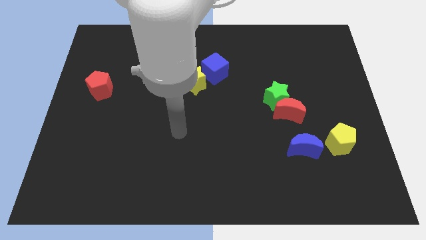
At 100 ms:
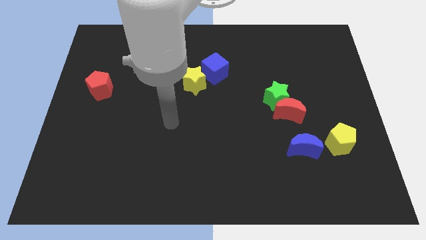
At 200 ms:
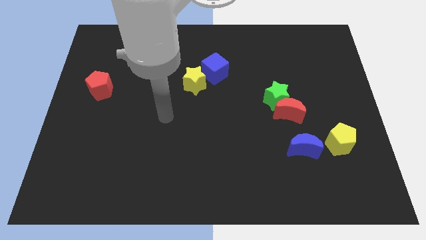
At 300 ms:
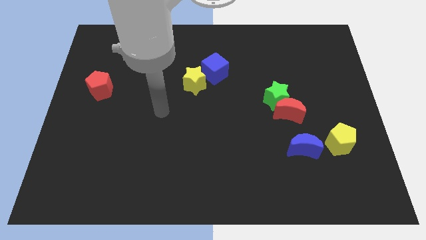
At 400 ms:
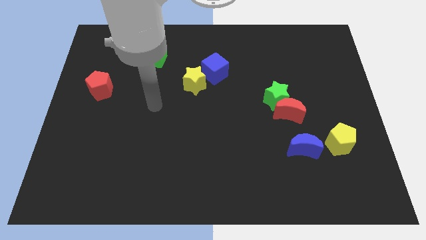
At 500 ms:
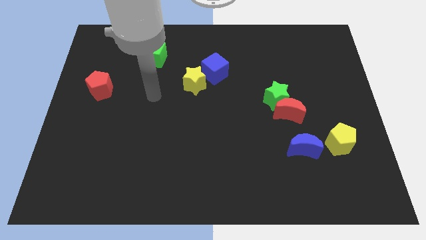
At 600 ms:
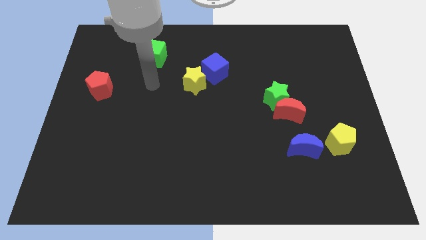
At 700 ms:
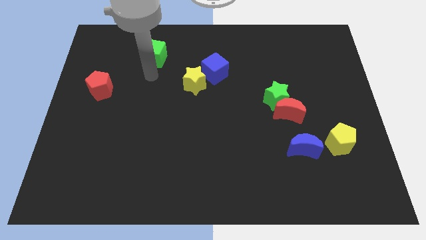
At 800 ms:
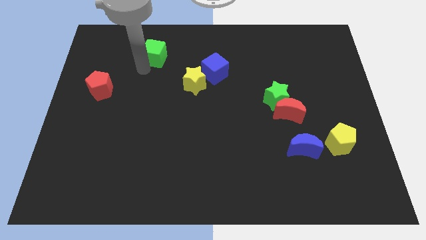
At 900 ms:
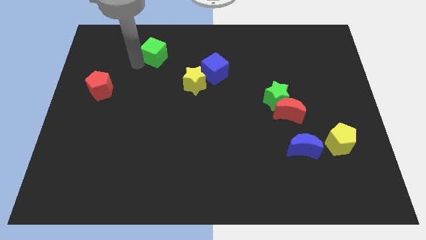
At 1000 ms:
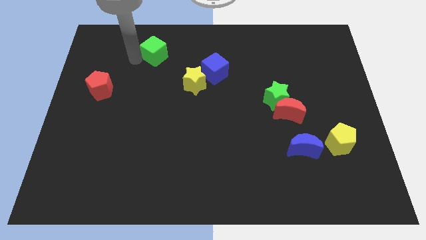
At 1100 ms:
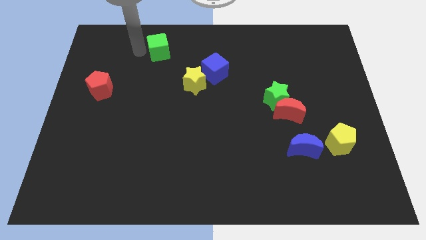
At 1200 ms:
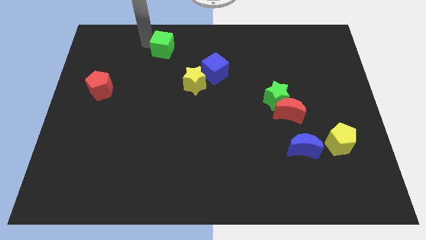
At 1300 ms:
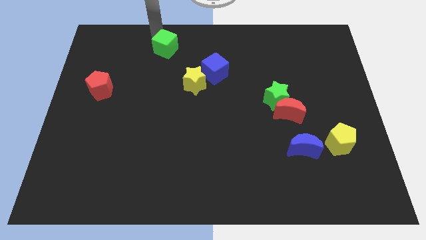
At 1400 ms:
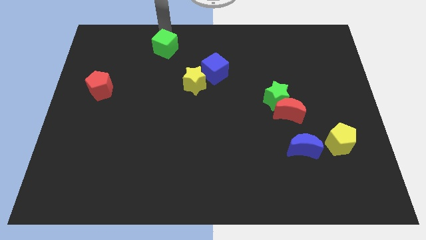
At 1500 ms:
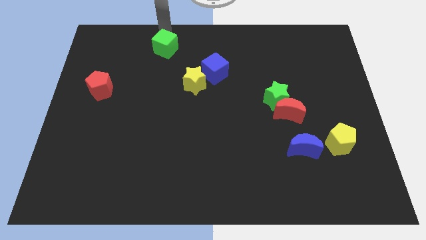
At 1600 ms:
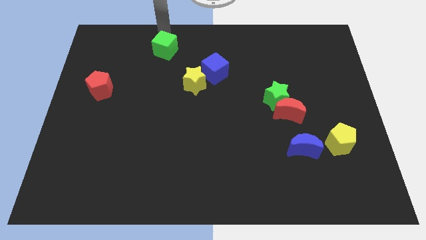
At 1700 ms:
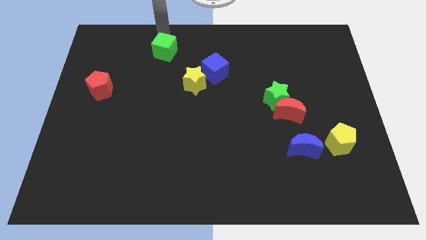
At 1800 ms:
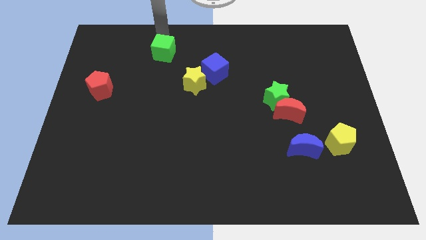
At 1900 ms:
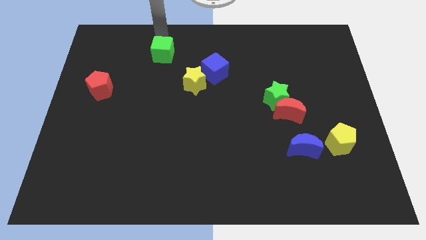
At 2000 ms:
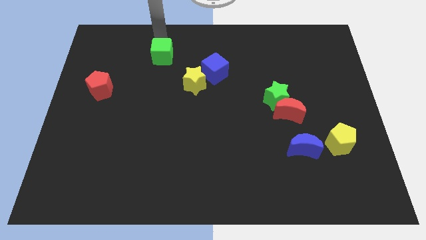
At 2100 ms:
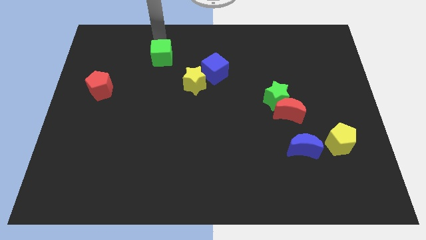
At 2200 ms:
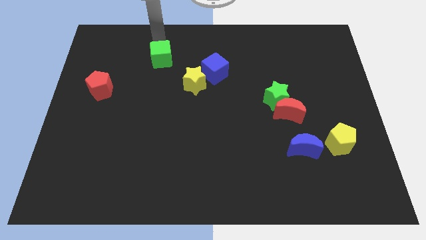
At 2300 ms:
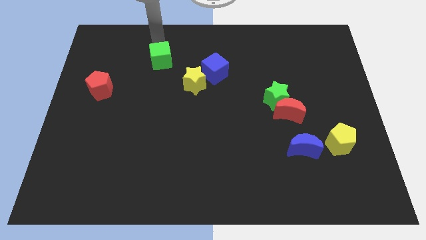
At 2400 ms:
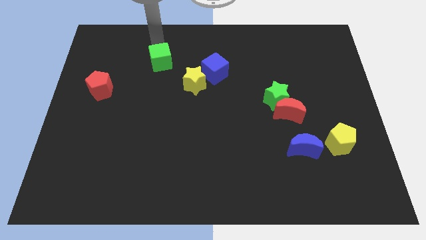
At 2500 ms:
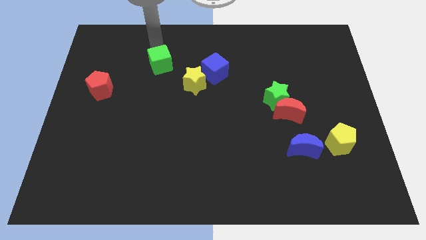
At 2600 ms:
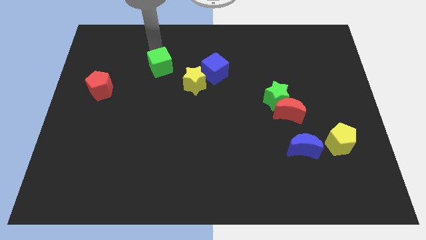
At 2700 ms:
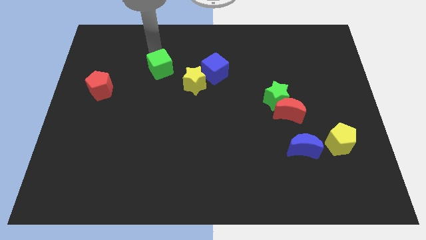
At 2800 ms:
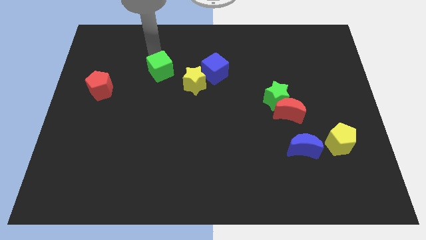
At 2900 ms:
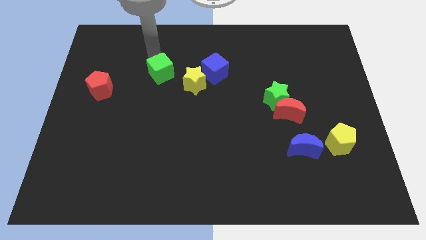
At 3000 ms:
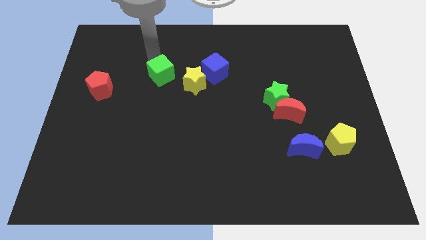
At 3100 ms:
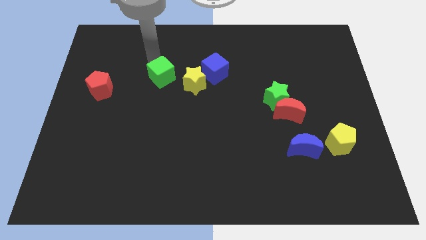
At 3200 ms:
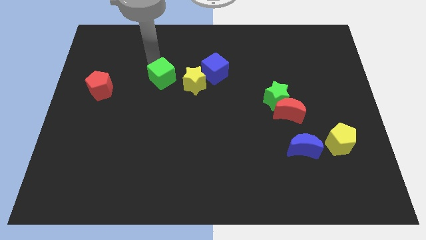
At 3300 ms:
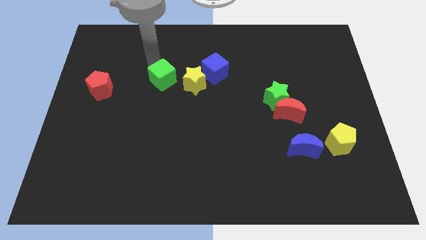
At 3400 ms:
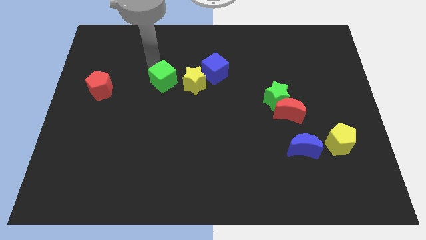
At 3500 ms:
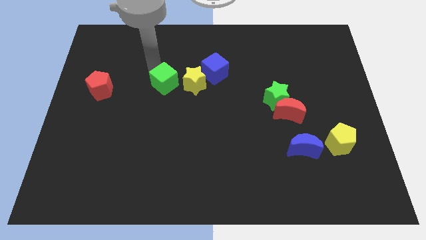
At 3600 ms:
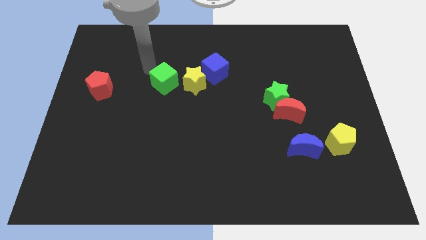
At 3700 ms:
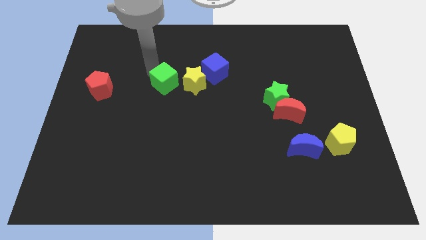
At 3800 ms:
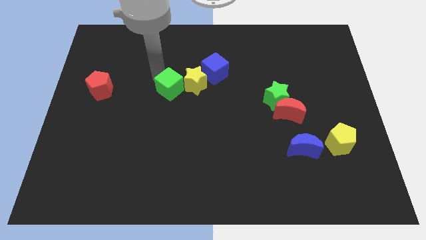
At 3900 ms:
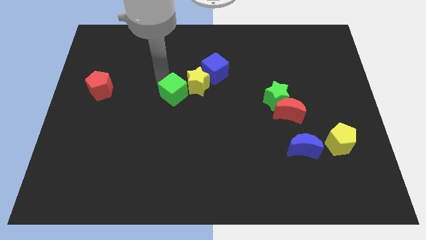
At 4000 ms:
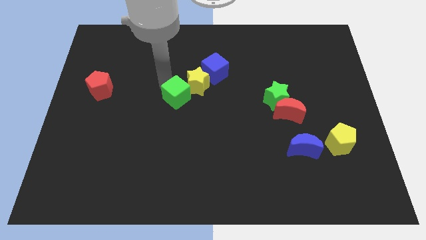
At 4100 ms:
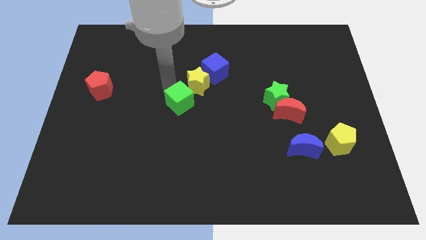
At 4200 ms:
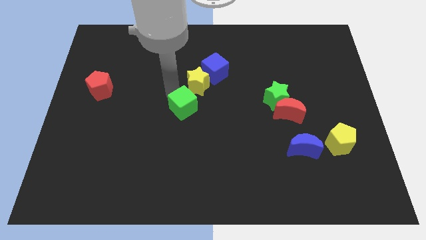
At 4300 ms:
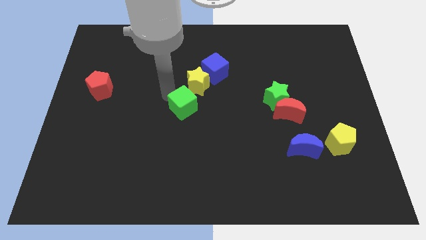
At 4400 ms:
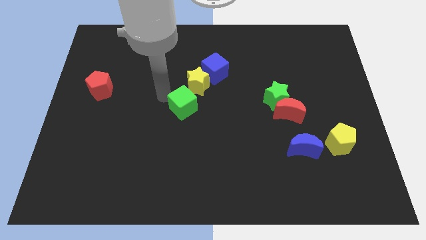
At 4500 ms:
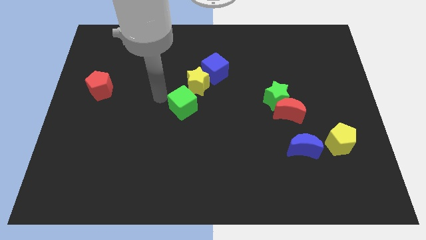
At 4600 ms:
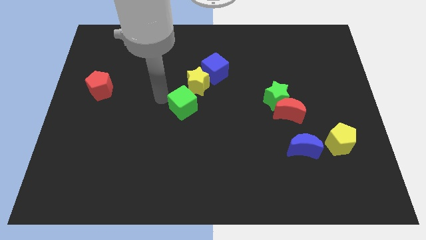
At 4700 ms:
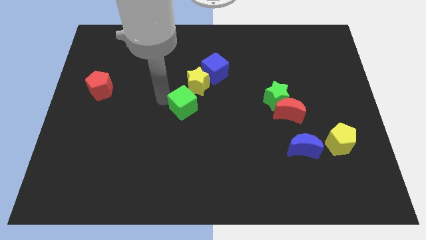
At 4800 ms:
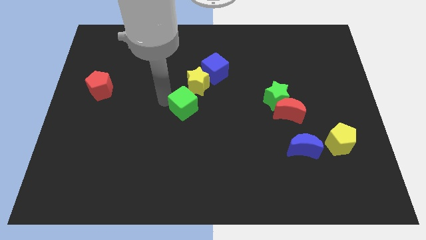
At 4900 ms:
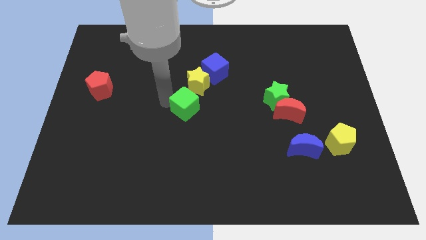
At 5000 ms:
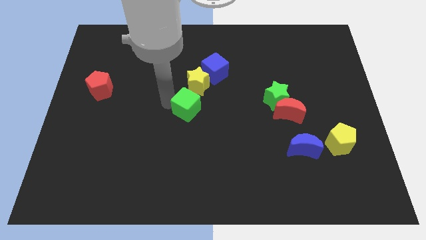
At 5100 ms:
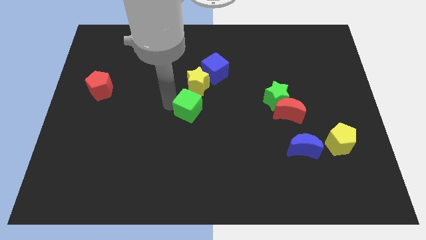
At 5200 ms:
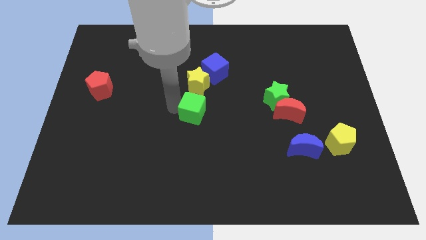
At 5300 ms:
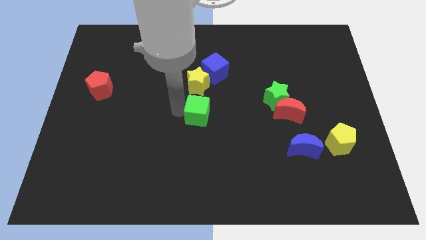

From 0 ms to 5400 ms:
move the green cube downwards and then to the right

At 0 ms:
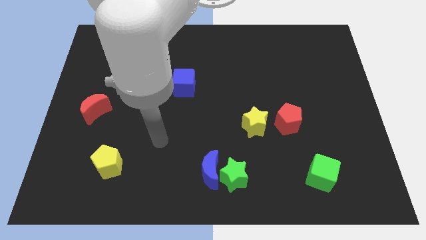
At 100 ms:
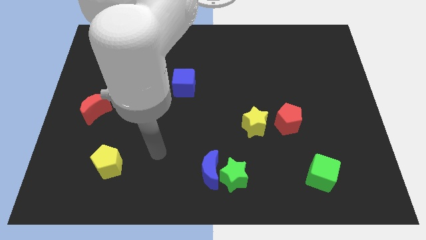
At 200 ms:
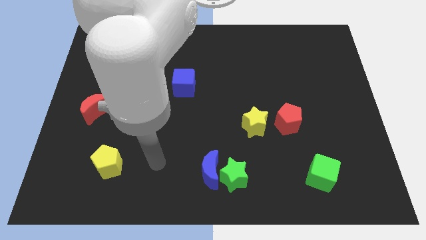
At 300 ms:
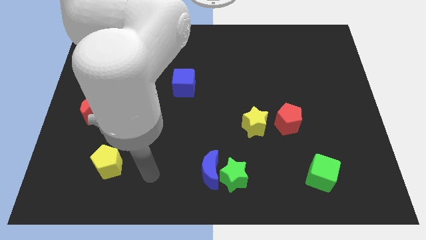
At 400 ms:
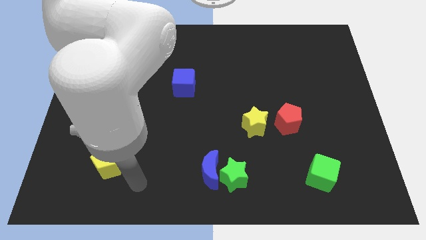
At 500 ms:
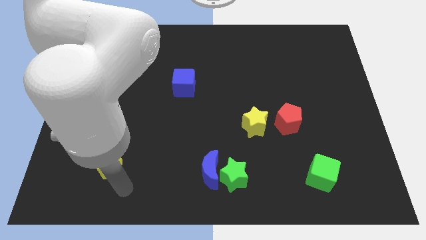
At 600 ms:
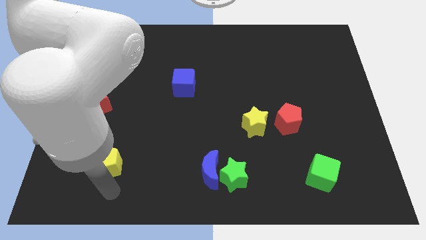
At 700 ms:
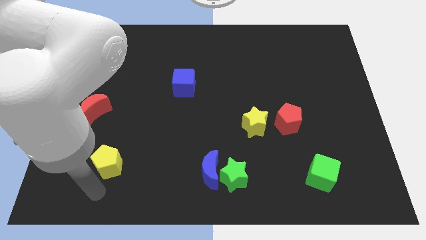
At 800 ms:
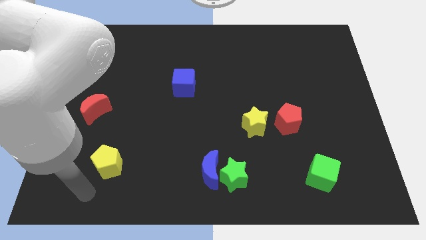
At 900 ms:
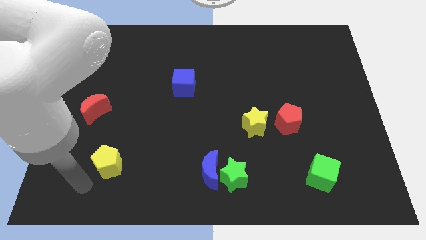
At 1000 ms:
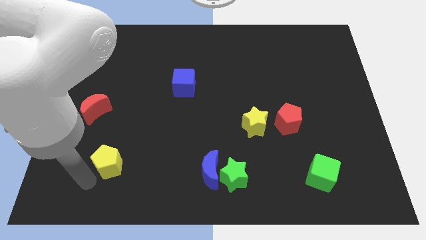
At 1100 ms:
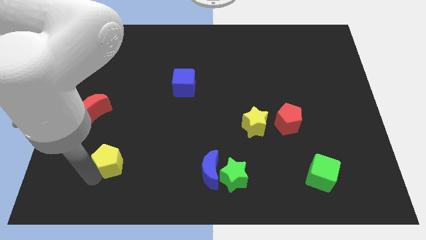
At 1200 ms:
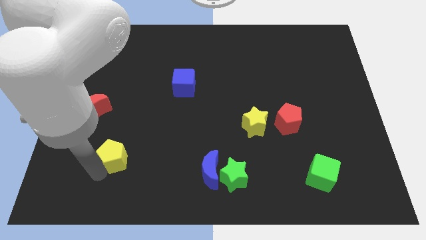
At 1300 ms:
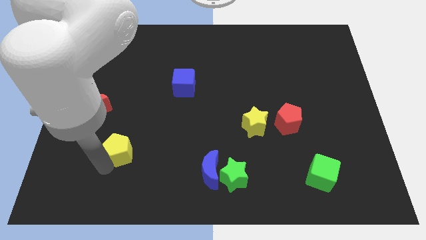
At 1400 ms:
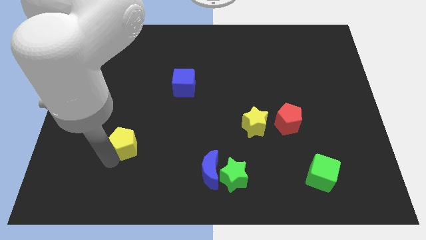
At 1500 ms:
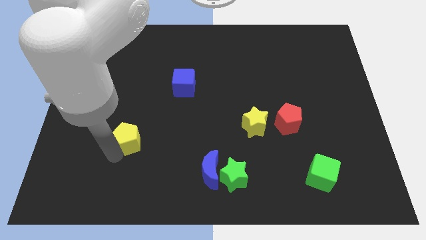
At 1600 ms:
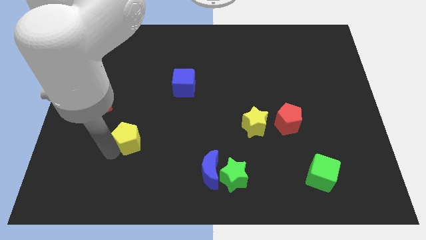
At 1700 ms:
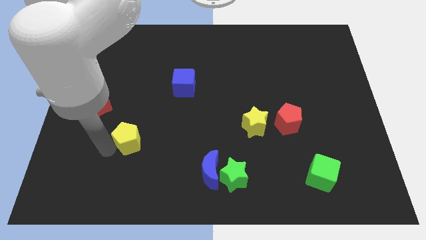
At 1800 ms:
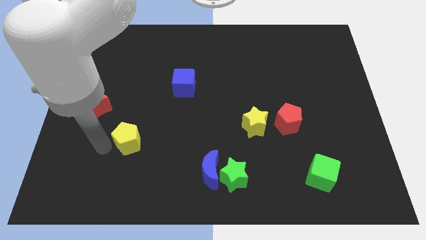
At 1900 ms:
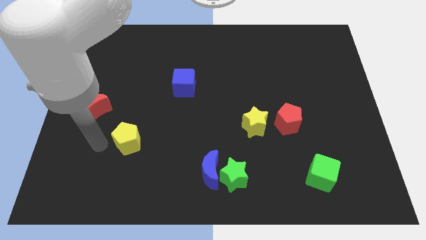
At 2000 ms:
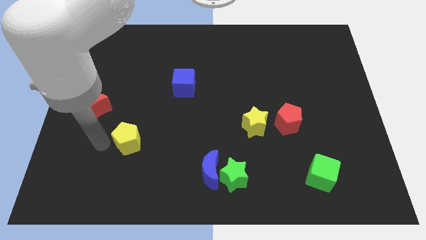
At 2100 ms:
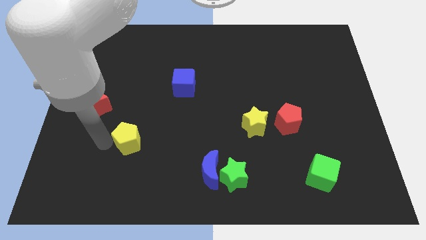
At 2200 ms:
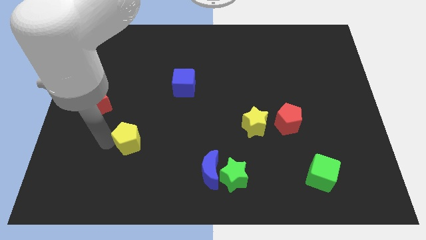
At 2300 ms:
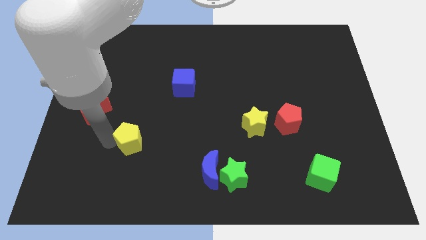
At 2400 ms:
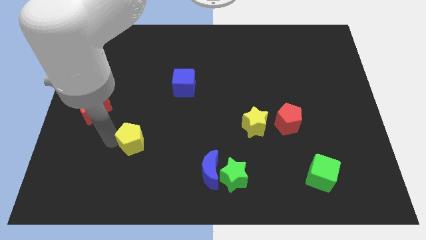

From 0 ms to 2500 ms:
move the yellow pentagon diagonally upwards and right slightly

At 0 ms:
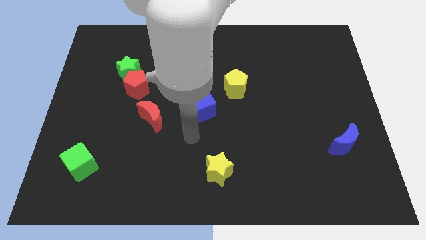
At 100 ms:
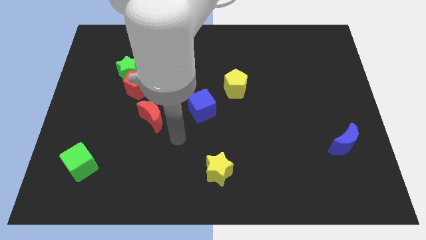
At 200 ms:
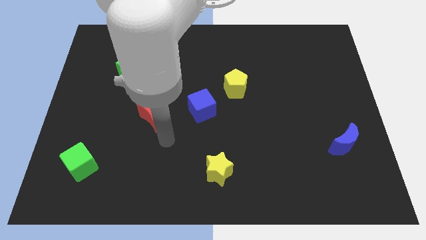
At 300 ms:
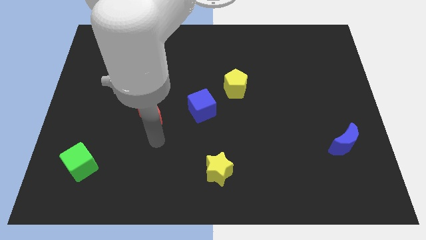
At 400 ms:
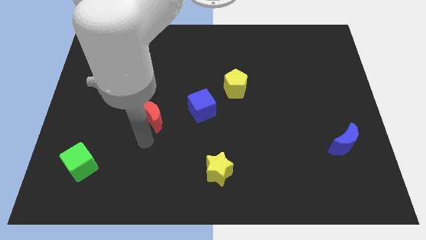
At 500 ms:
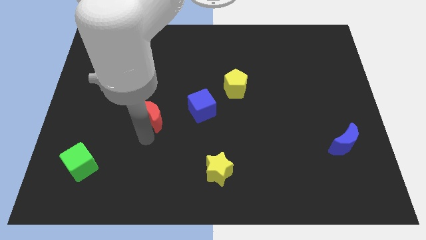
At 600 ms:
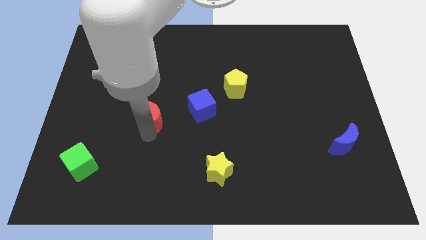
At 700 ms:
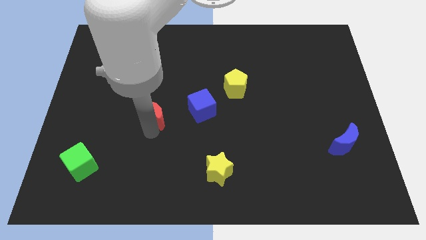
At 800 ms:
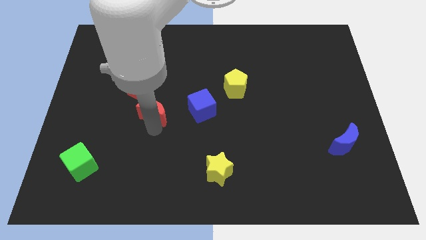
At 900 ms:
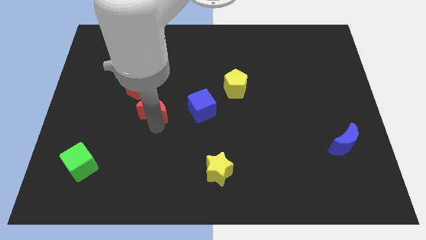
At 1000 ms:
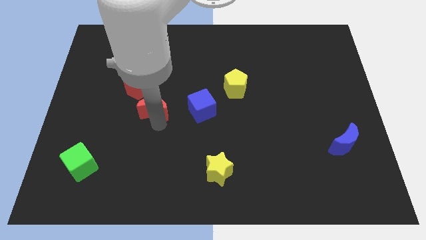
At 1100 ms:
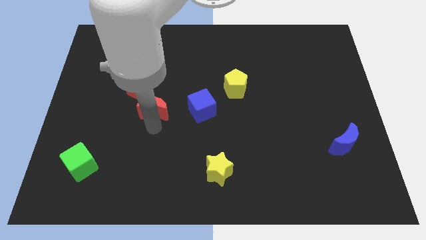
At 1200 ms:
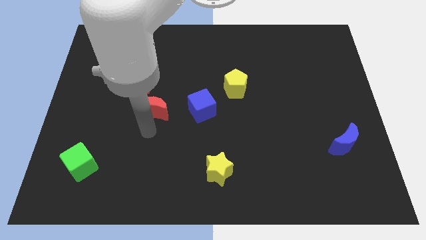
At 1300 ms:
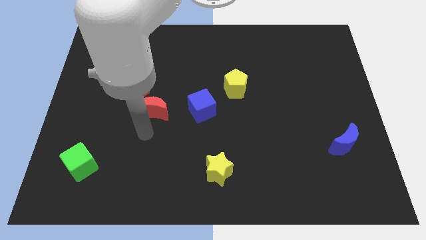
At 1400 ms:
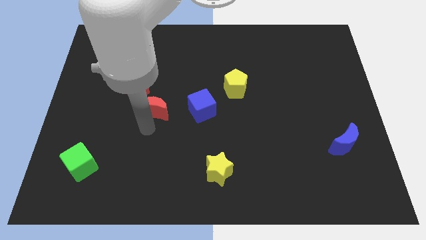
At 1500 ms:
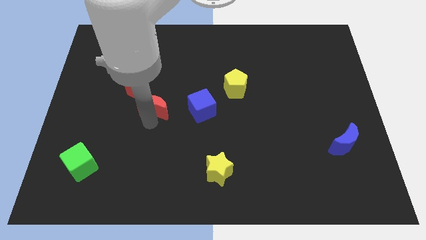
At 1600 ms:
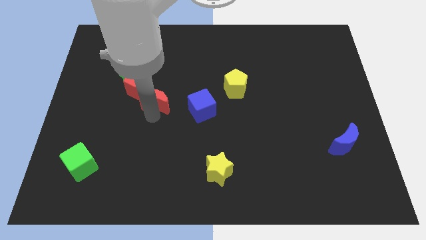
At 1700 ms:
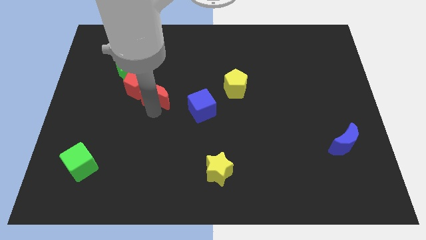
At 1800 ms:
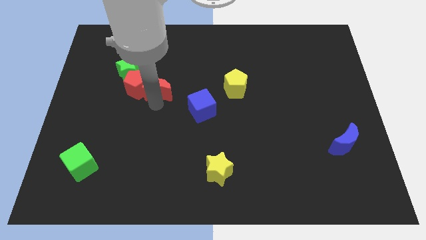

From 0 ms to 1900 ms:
slide the red moon upwards a bit
